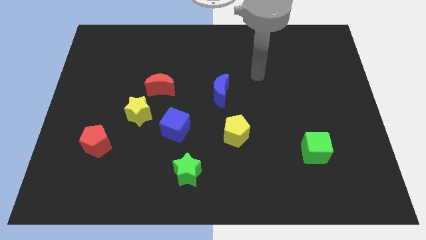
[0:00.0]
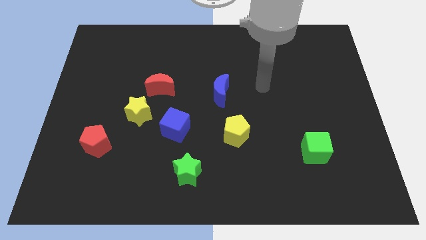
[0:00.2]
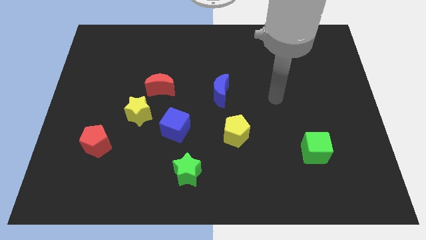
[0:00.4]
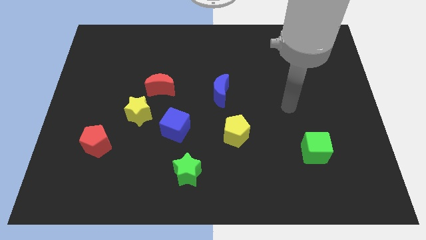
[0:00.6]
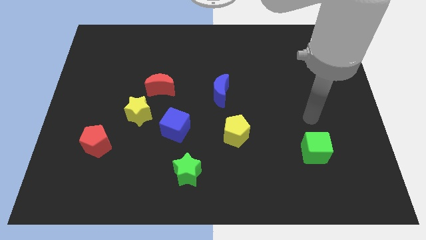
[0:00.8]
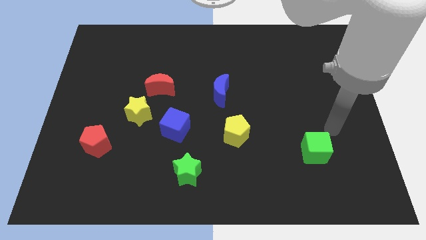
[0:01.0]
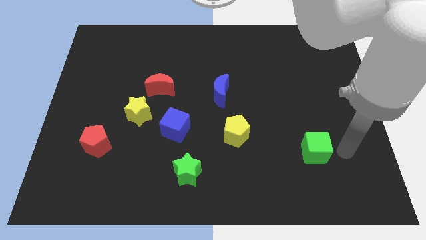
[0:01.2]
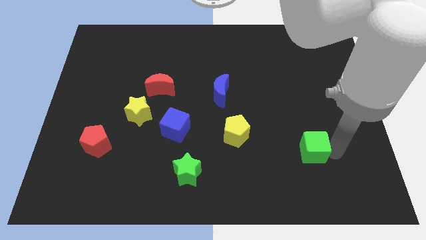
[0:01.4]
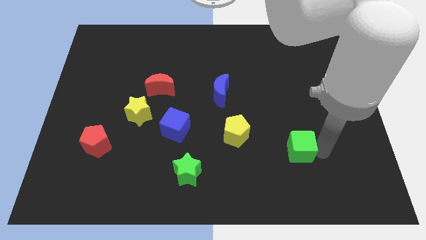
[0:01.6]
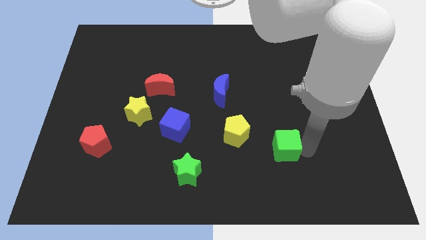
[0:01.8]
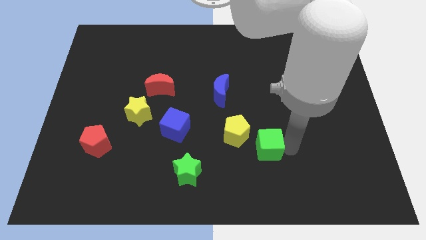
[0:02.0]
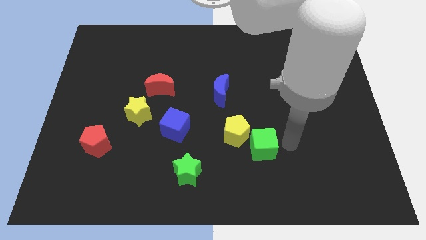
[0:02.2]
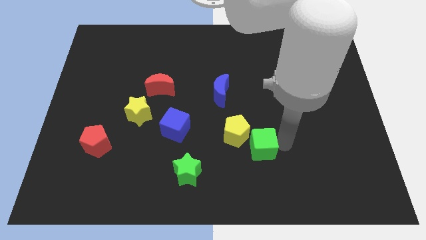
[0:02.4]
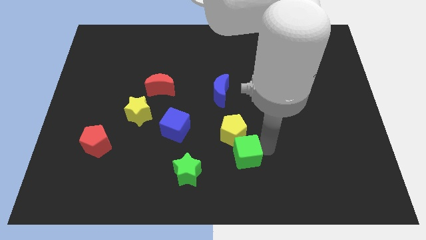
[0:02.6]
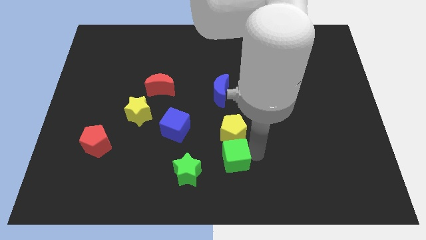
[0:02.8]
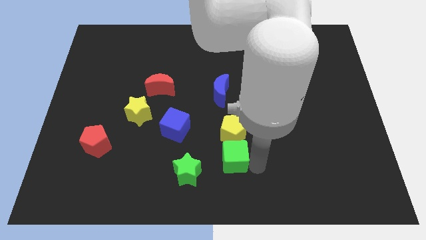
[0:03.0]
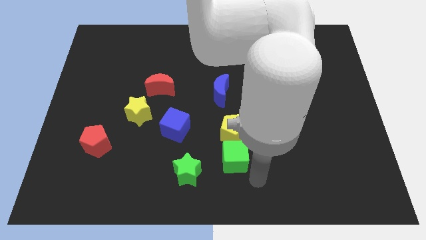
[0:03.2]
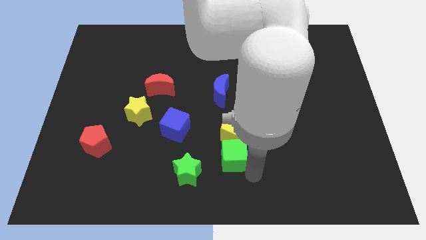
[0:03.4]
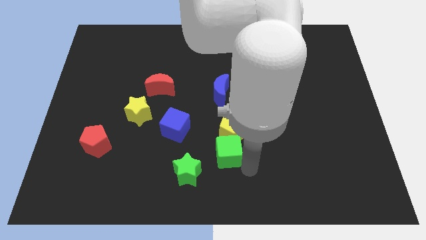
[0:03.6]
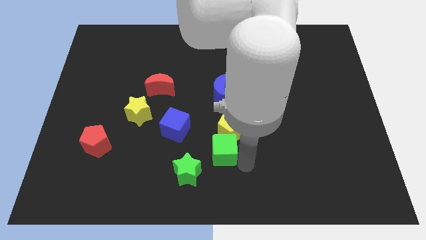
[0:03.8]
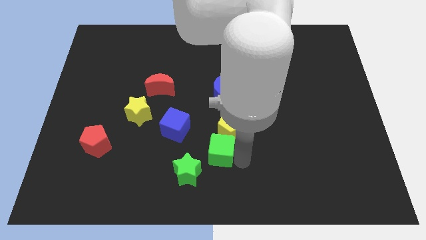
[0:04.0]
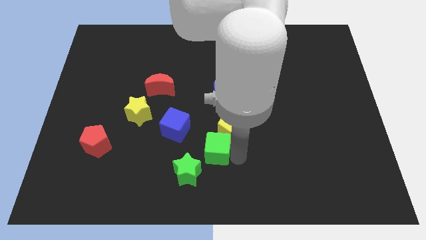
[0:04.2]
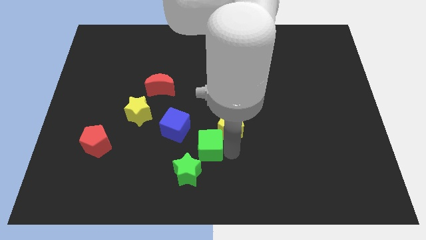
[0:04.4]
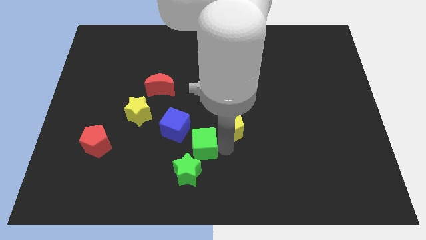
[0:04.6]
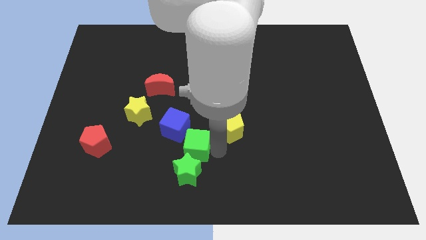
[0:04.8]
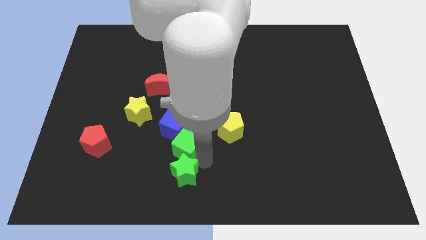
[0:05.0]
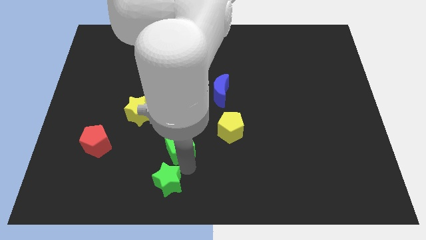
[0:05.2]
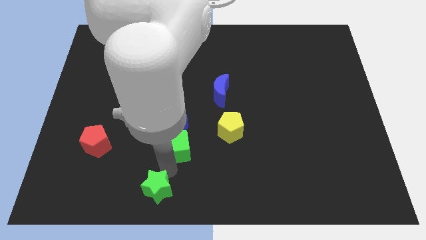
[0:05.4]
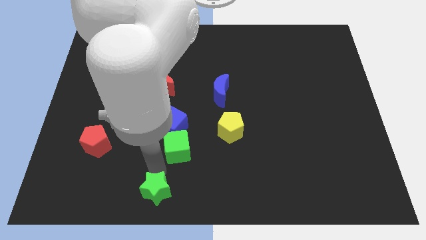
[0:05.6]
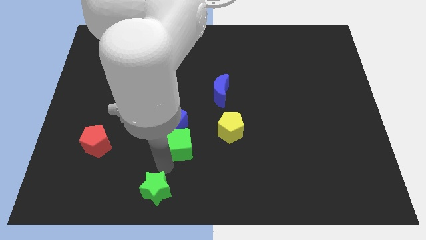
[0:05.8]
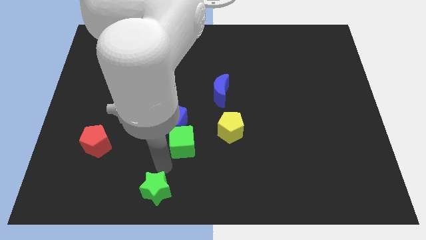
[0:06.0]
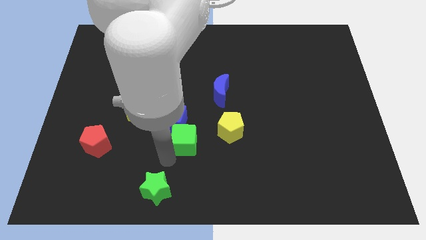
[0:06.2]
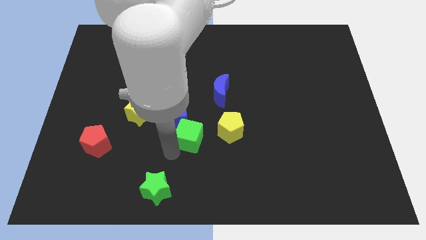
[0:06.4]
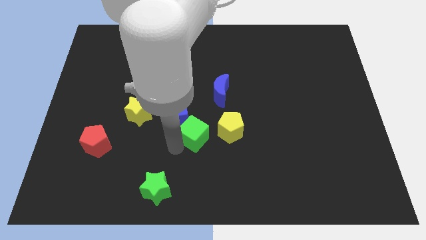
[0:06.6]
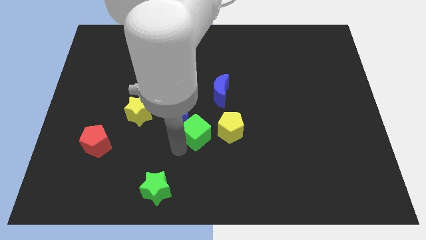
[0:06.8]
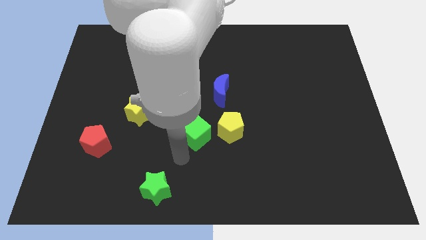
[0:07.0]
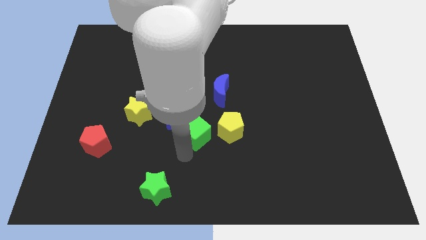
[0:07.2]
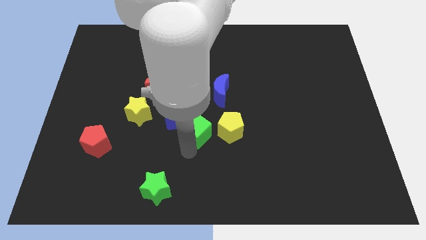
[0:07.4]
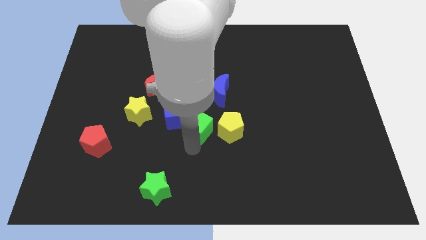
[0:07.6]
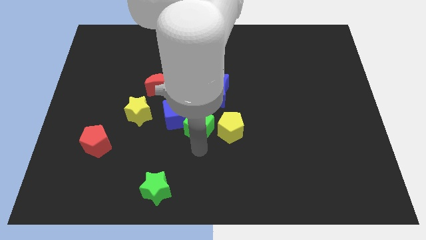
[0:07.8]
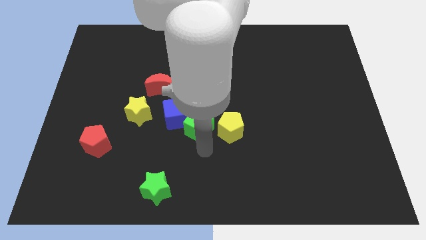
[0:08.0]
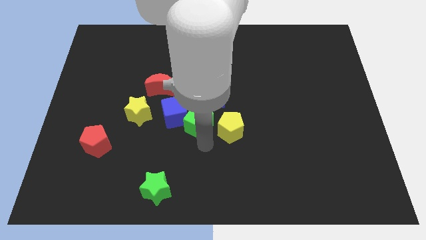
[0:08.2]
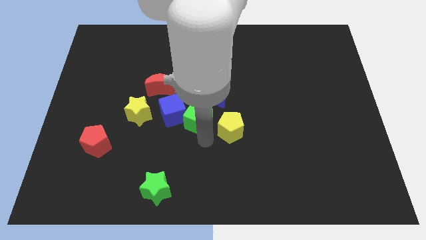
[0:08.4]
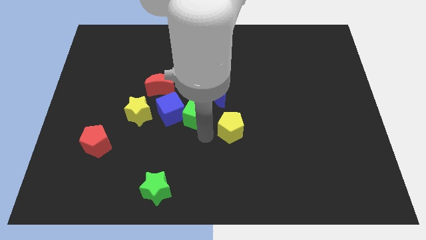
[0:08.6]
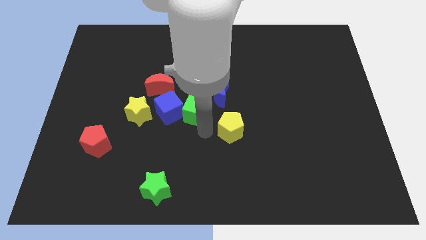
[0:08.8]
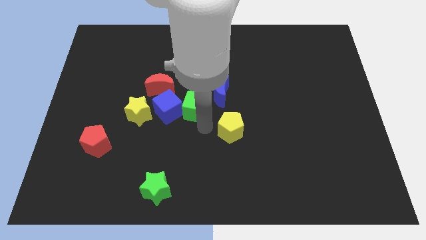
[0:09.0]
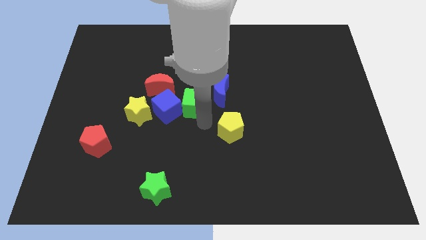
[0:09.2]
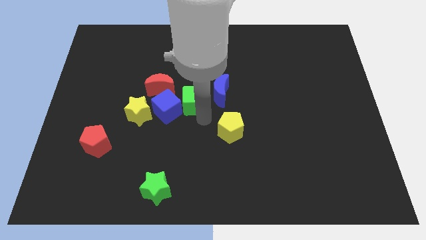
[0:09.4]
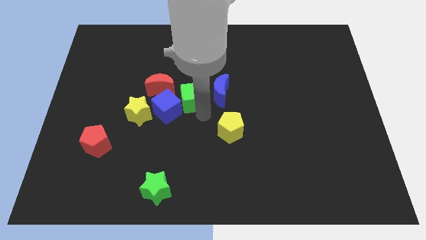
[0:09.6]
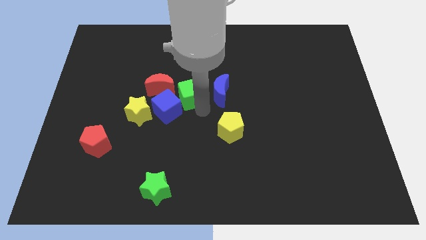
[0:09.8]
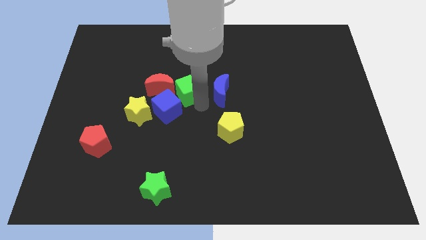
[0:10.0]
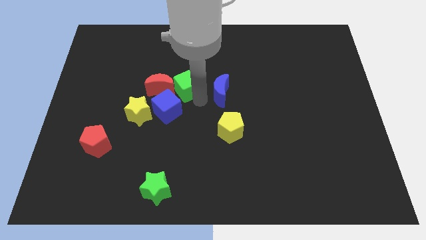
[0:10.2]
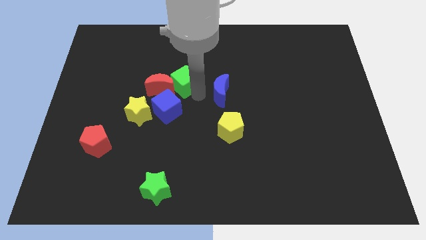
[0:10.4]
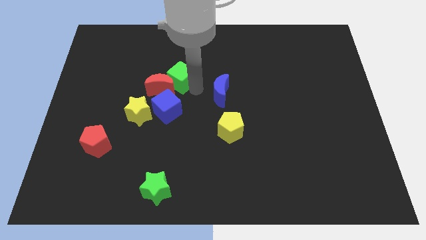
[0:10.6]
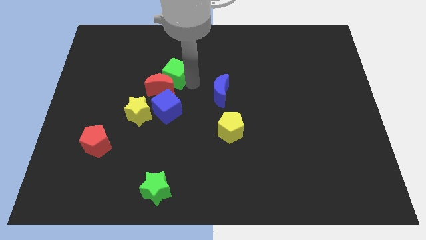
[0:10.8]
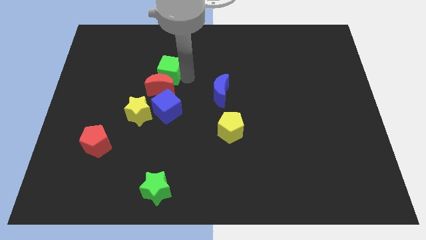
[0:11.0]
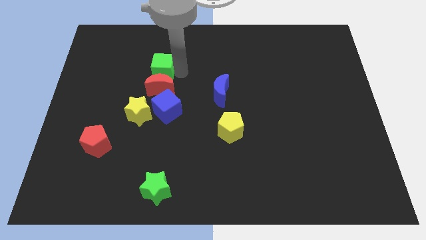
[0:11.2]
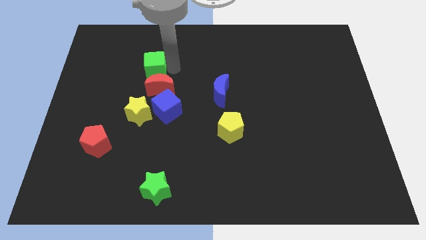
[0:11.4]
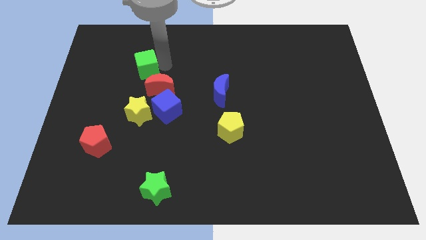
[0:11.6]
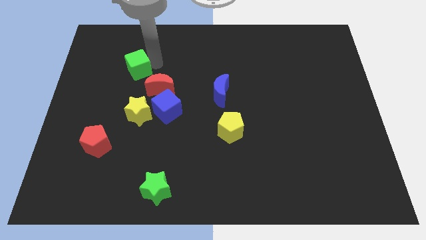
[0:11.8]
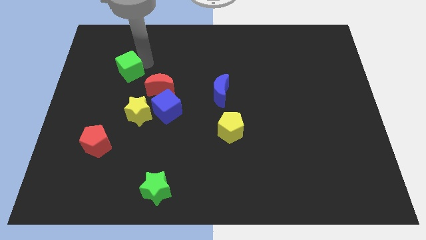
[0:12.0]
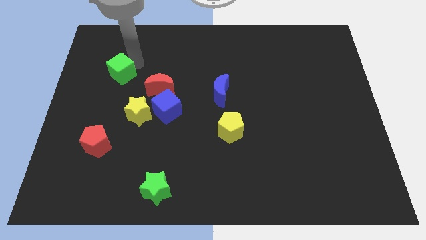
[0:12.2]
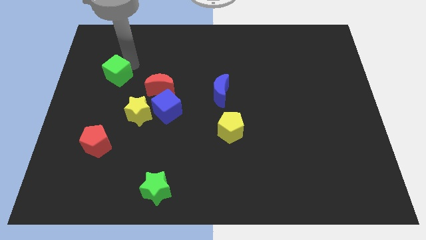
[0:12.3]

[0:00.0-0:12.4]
push the green cube left of the red moon
